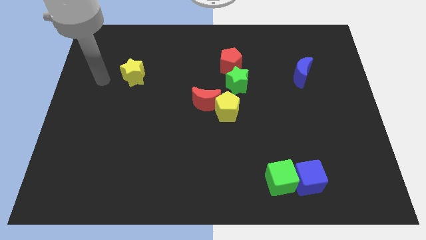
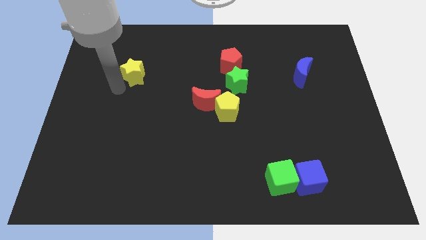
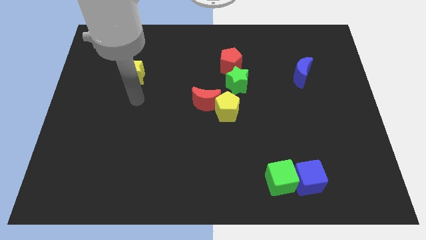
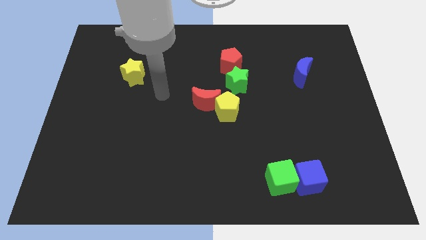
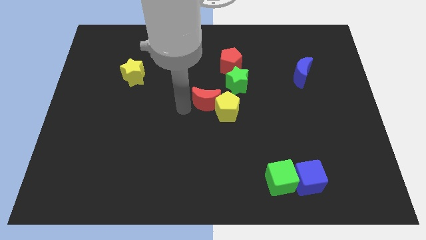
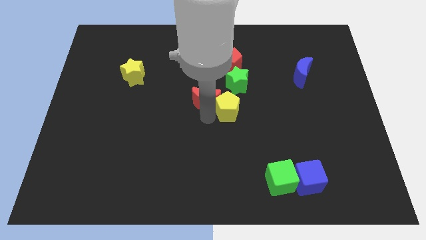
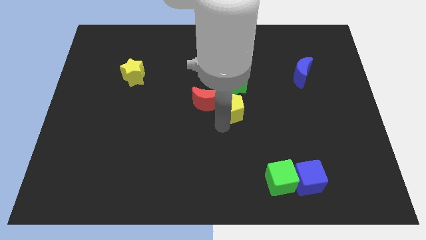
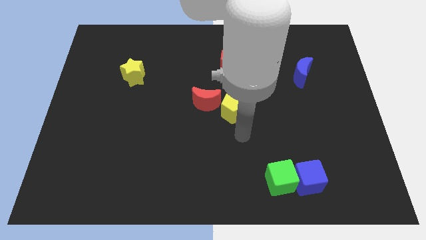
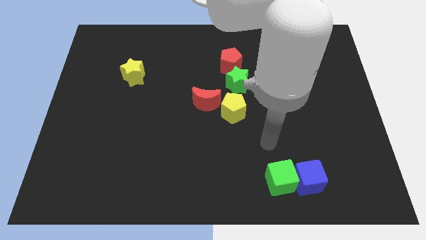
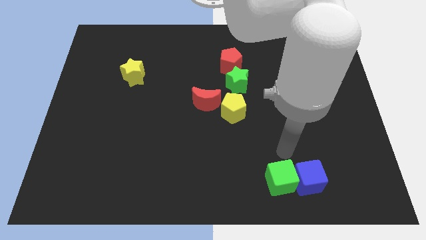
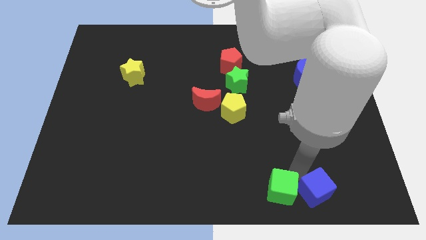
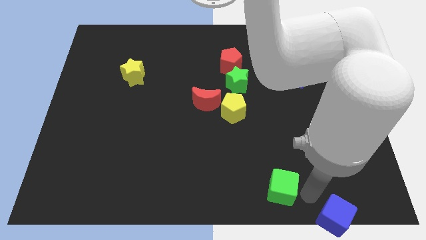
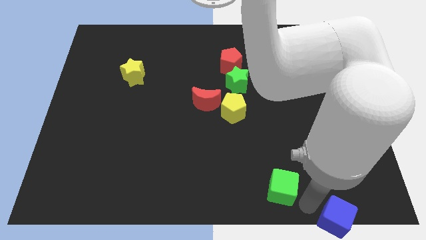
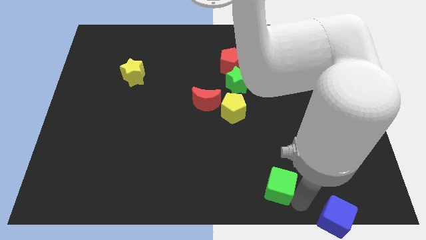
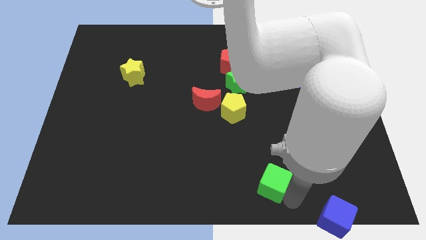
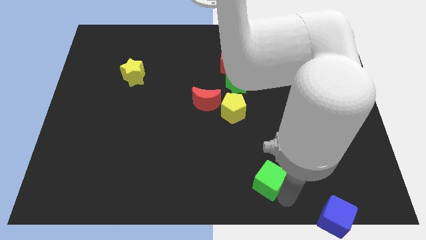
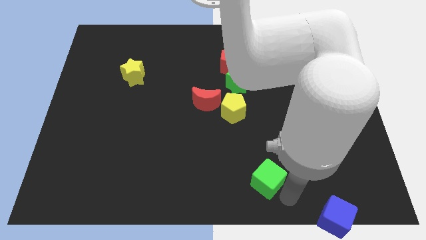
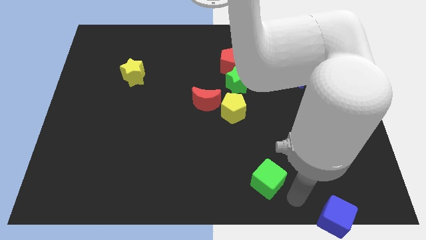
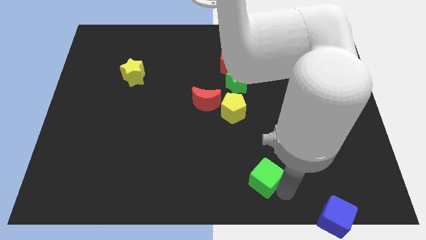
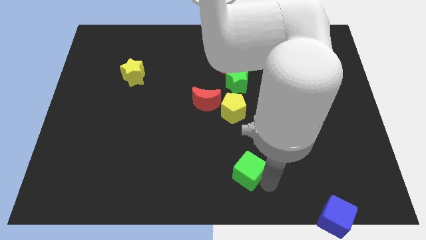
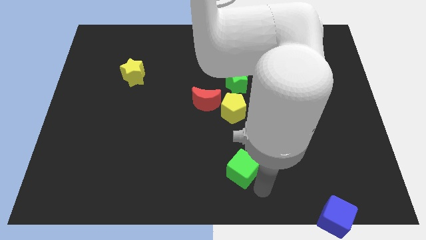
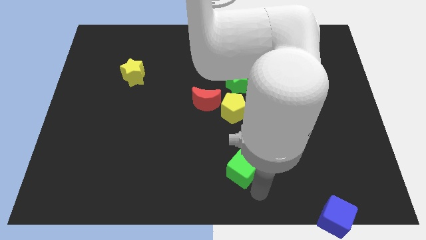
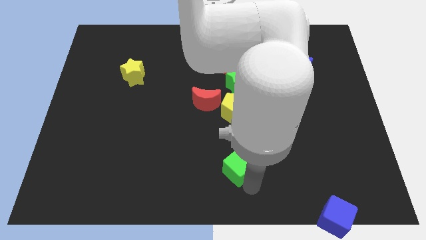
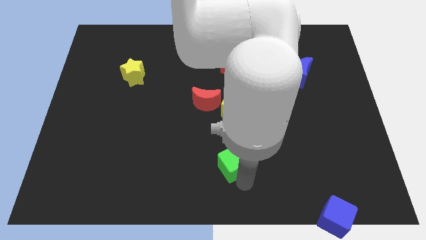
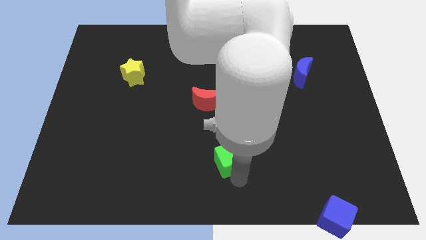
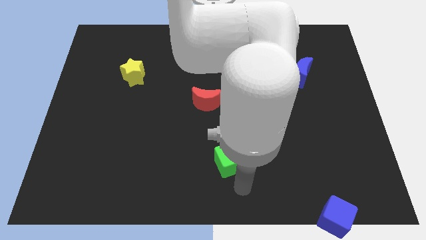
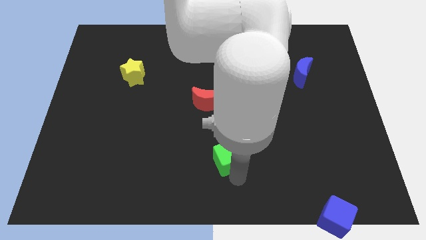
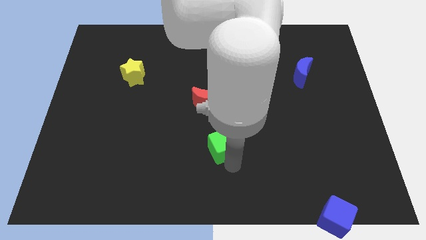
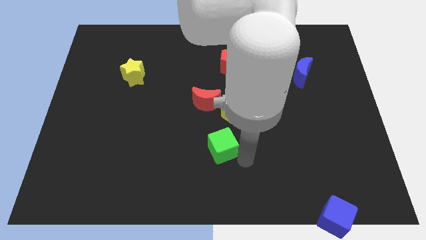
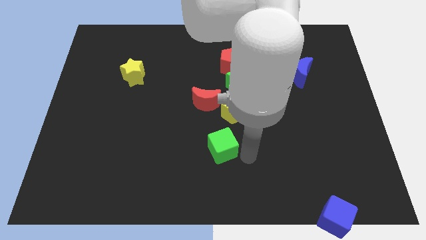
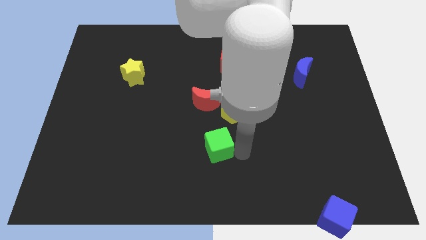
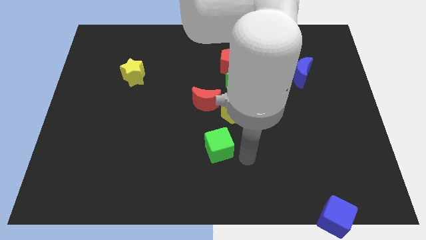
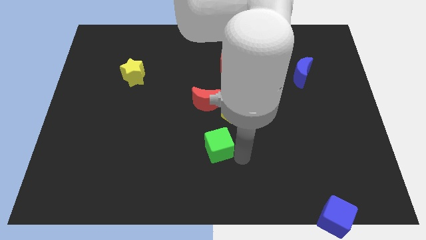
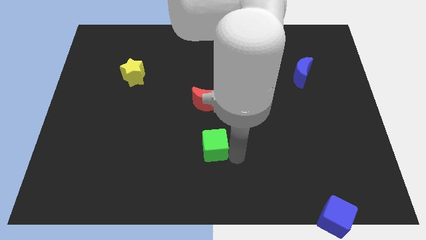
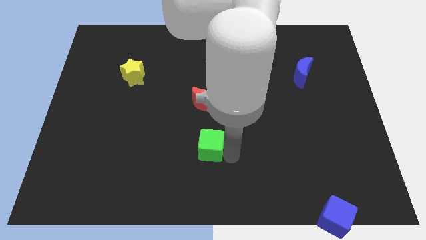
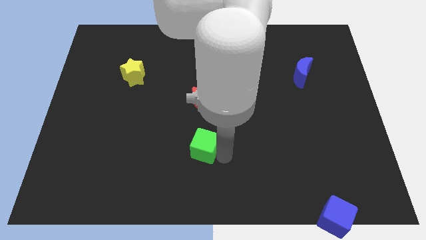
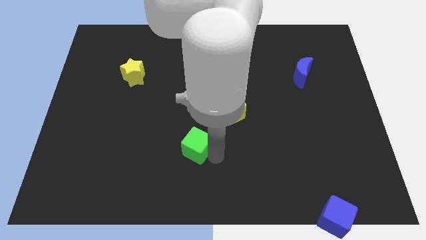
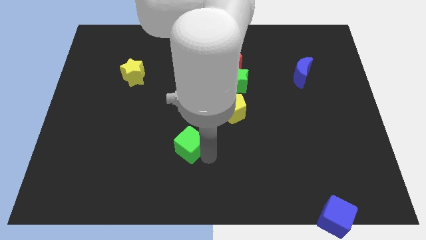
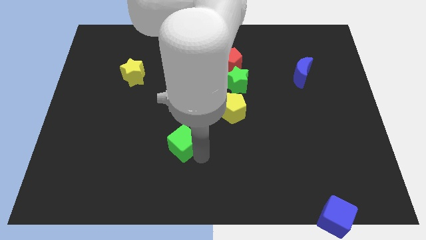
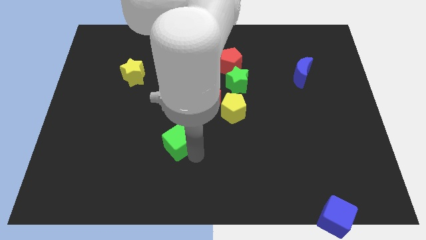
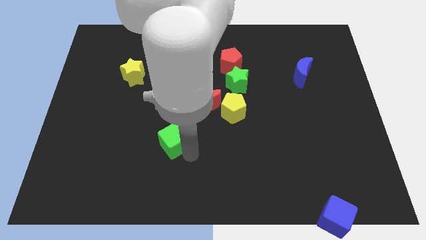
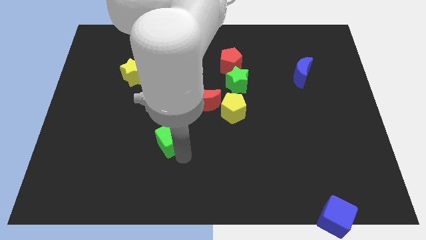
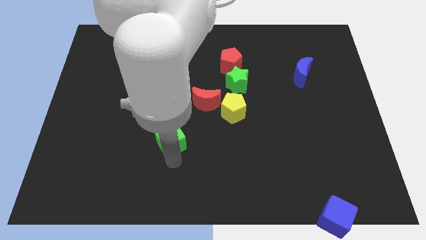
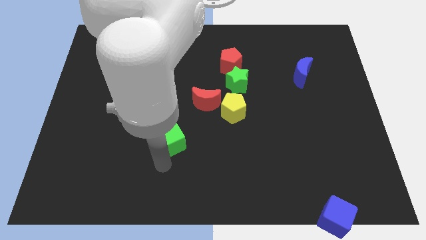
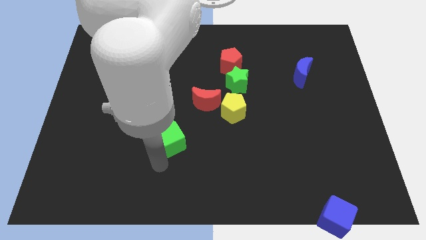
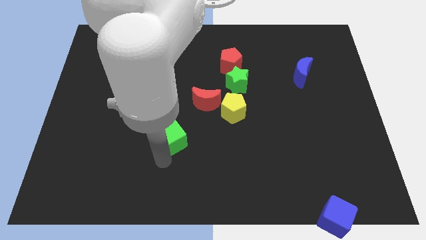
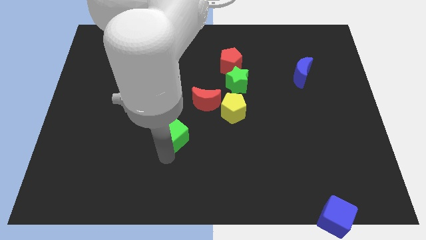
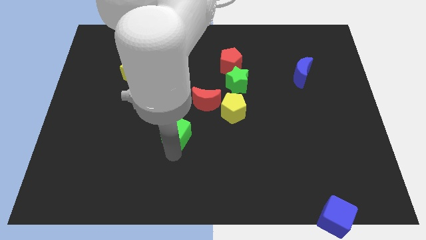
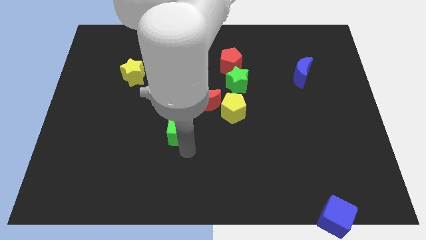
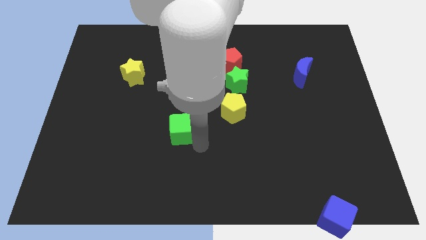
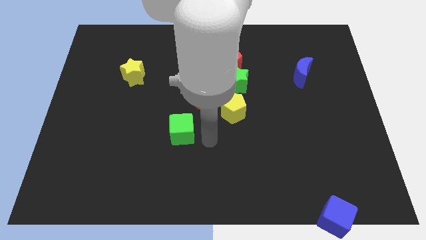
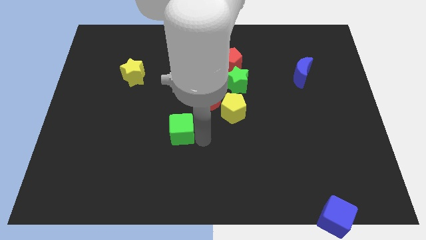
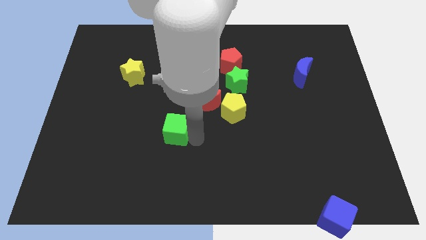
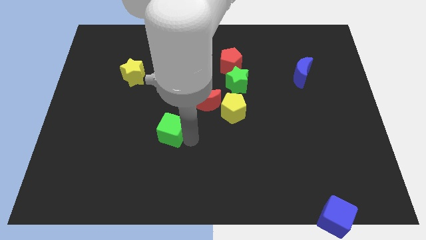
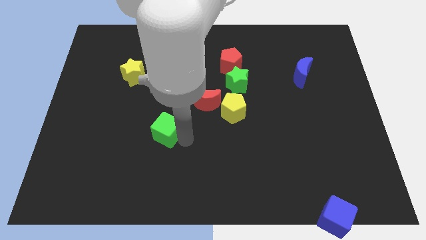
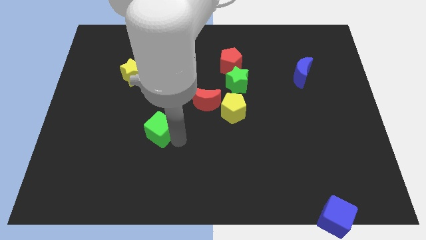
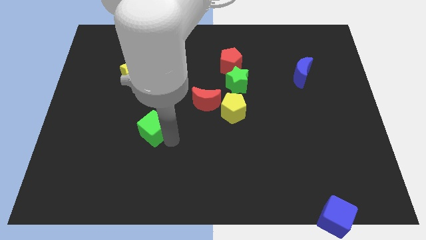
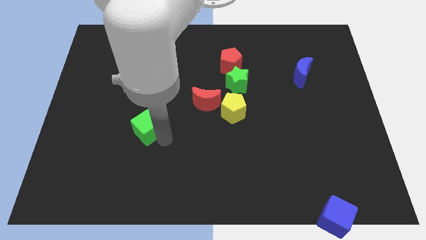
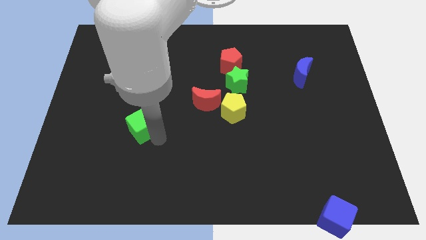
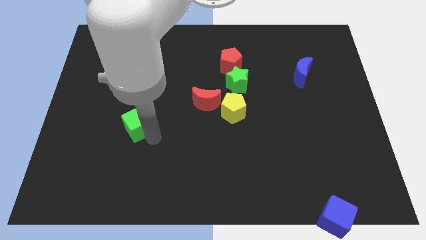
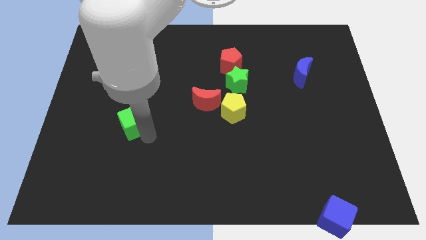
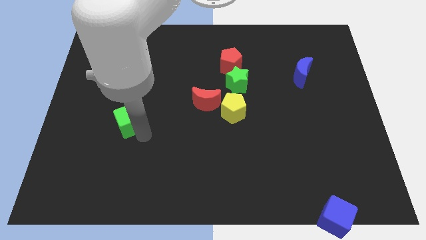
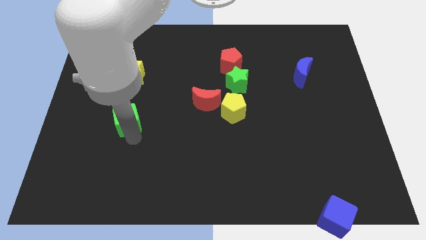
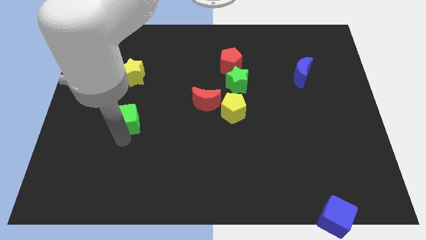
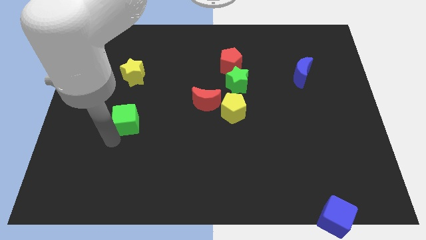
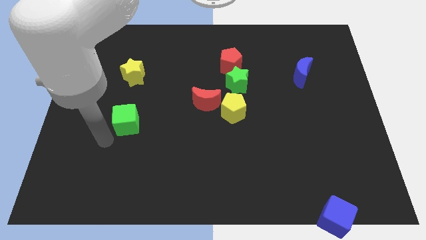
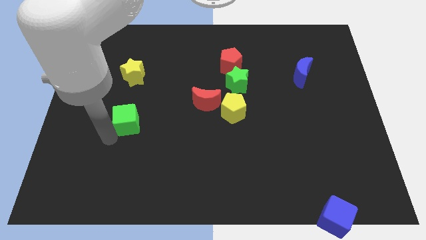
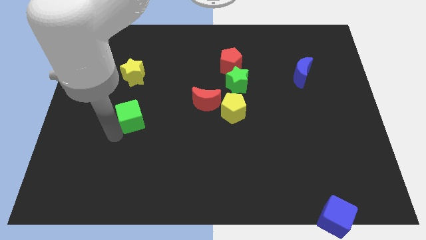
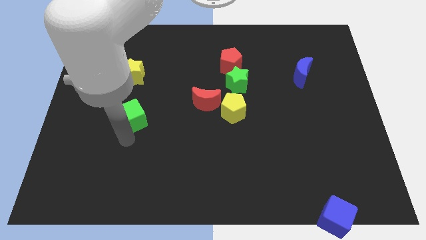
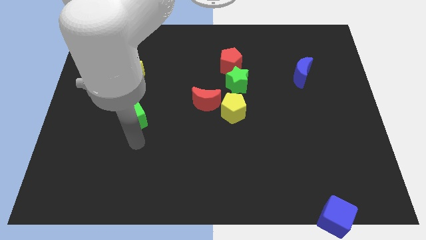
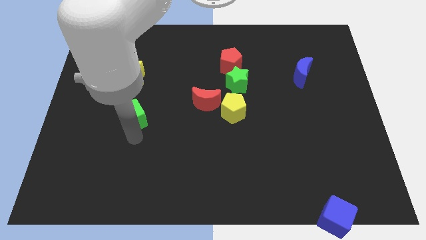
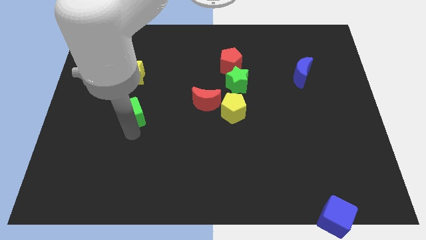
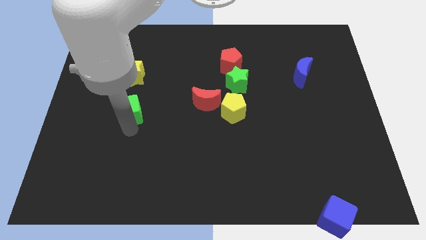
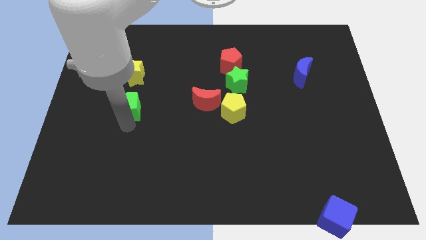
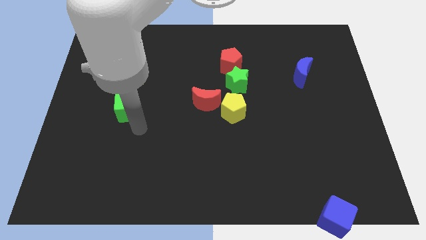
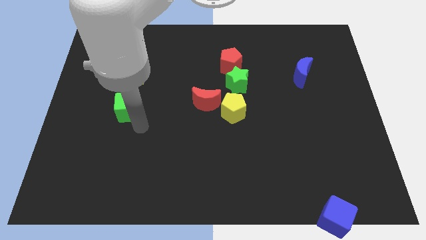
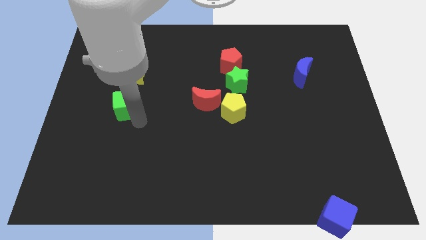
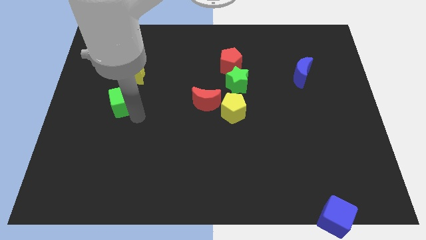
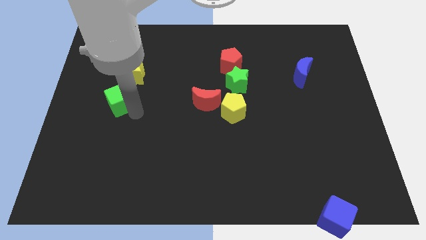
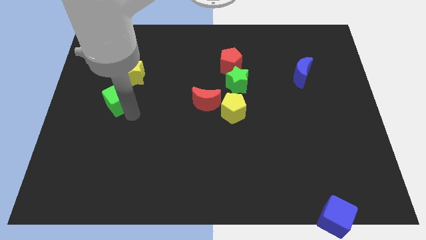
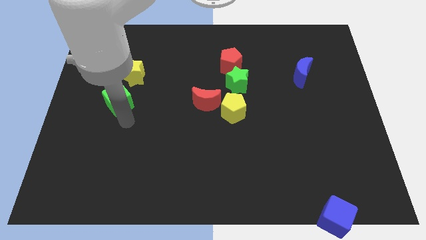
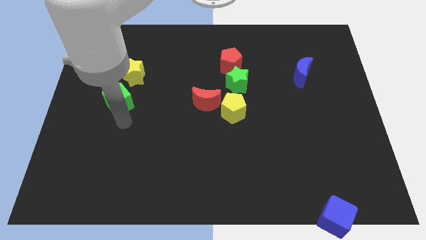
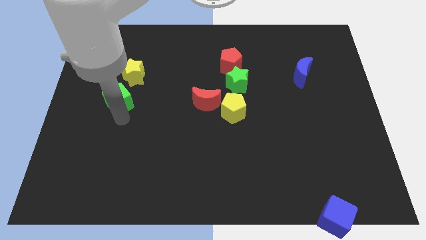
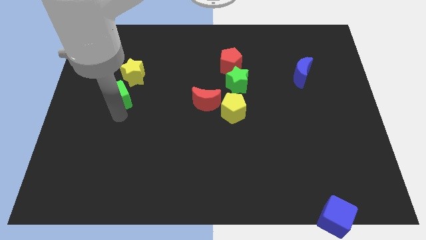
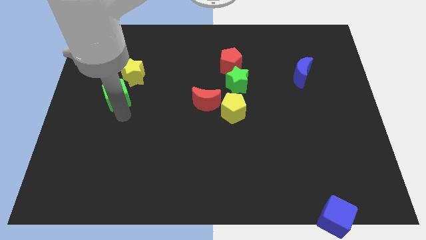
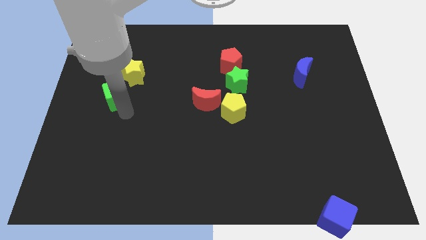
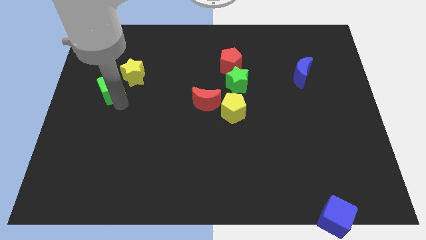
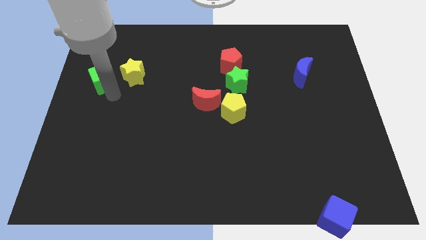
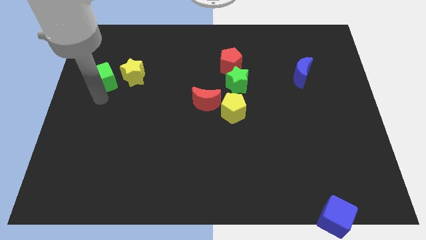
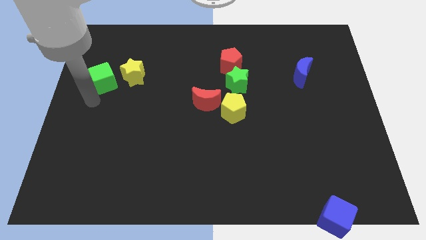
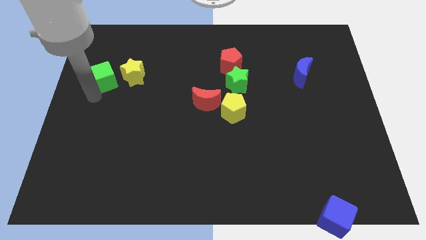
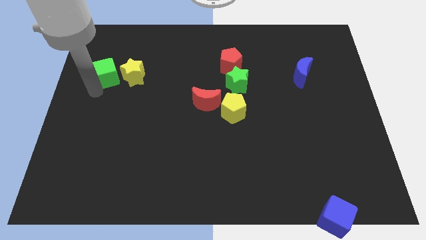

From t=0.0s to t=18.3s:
move the green cube to the top left of the yellow star
